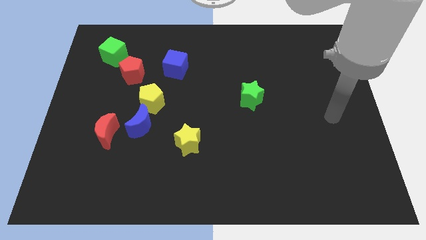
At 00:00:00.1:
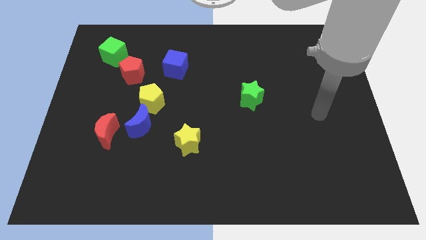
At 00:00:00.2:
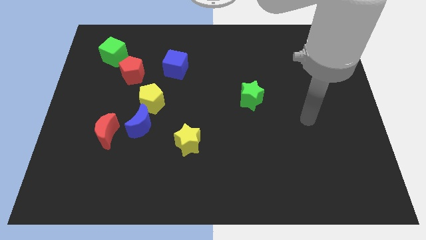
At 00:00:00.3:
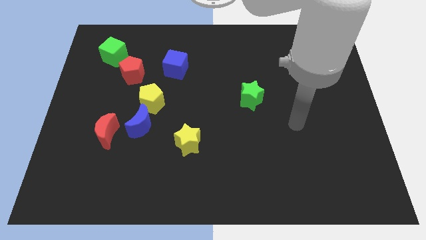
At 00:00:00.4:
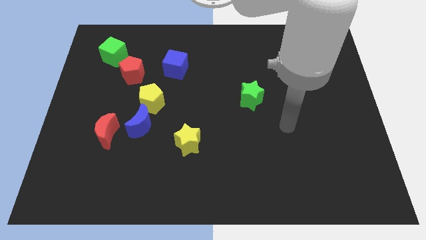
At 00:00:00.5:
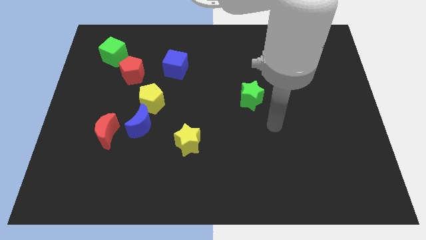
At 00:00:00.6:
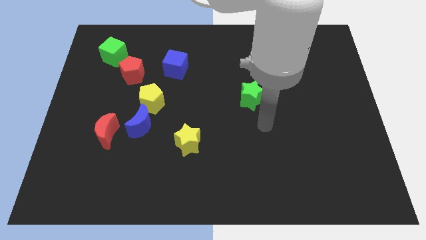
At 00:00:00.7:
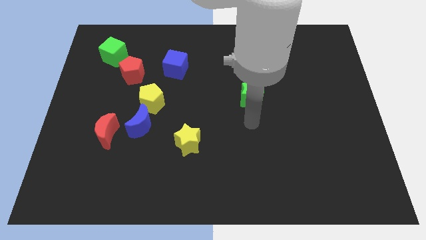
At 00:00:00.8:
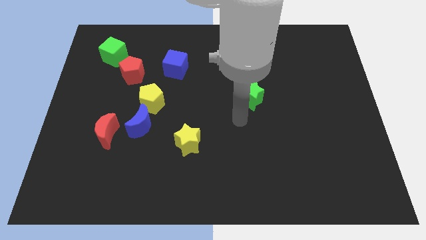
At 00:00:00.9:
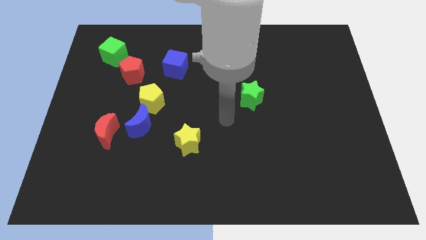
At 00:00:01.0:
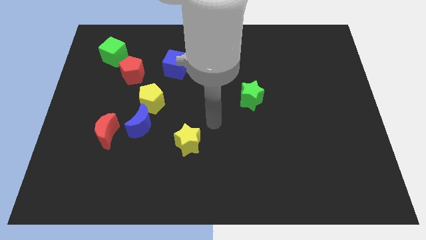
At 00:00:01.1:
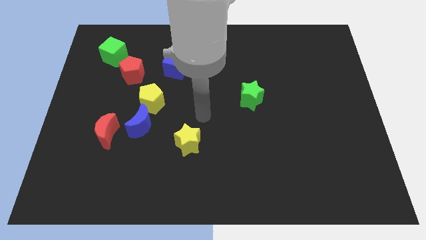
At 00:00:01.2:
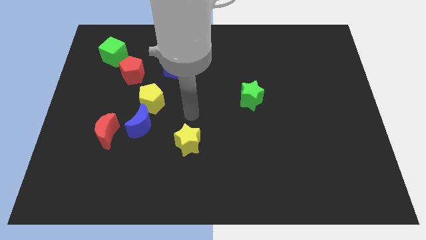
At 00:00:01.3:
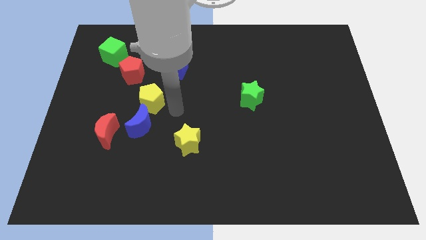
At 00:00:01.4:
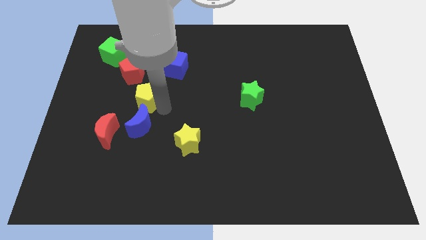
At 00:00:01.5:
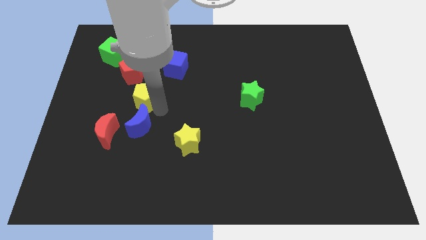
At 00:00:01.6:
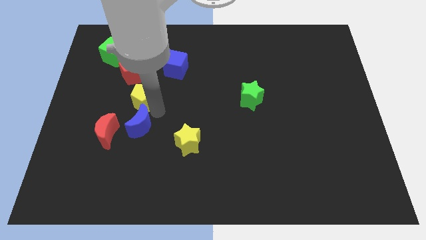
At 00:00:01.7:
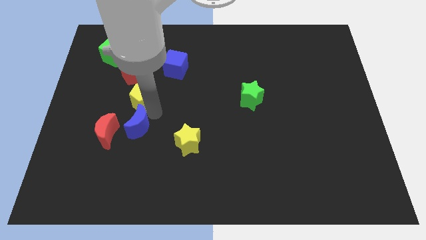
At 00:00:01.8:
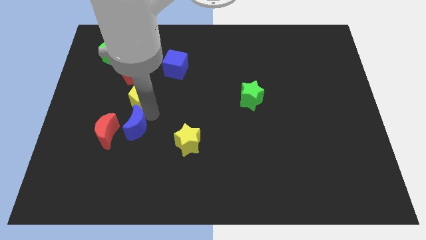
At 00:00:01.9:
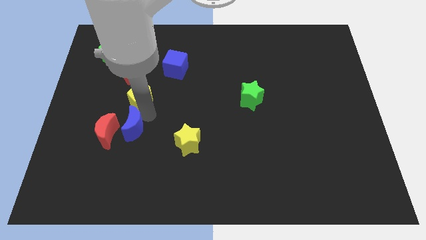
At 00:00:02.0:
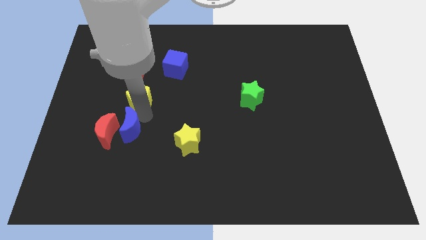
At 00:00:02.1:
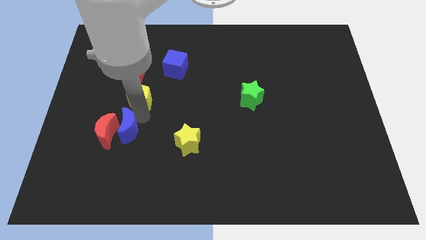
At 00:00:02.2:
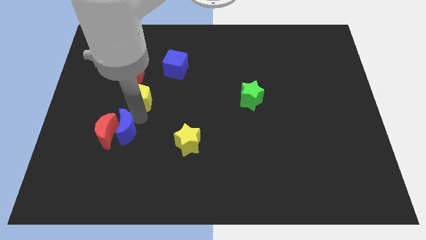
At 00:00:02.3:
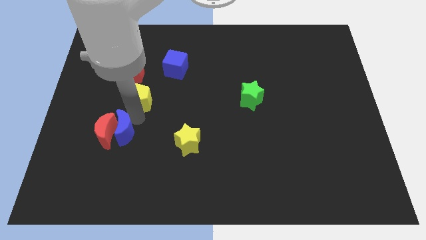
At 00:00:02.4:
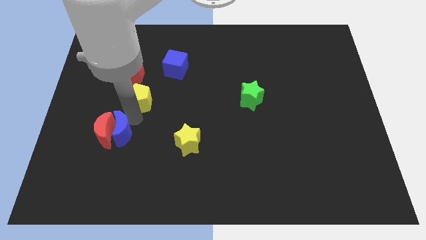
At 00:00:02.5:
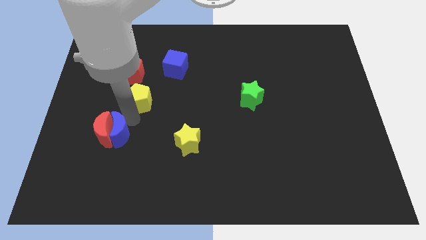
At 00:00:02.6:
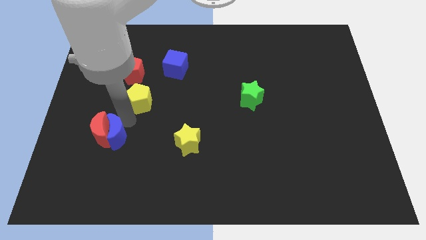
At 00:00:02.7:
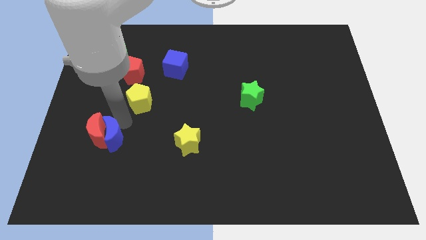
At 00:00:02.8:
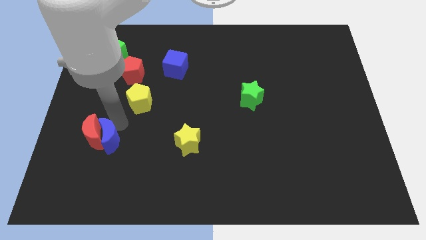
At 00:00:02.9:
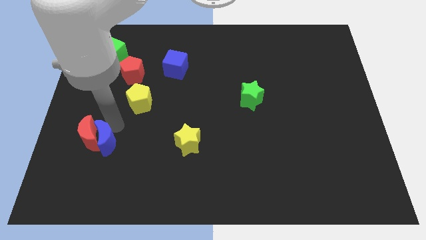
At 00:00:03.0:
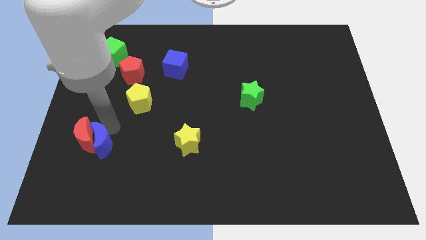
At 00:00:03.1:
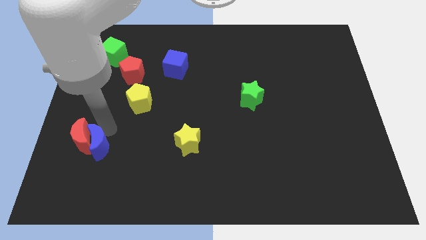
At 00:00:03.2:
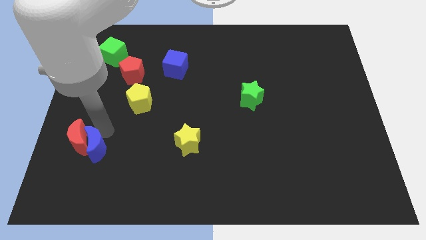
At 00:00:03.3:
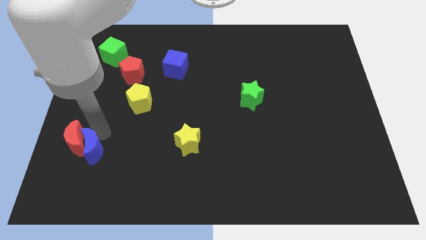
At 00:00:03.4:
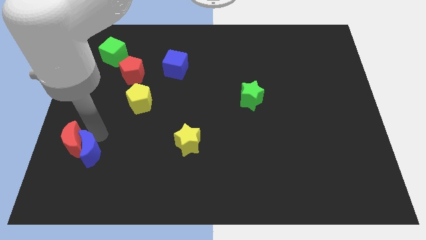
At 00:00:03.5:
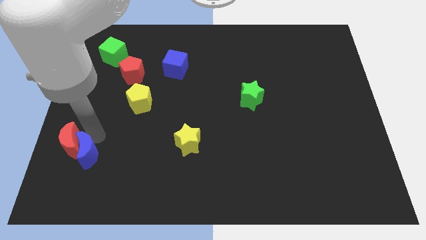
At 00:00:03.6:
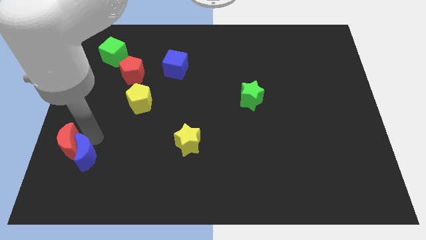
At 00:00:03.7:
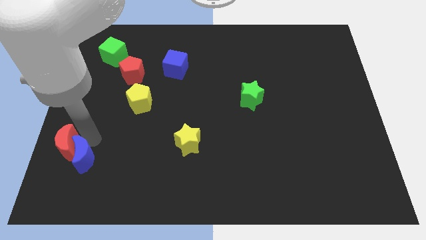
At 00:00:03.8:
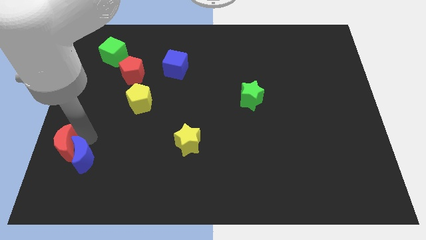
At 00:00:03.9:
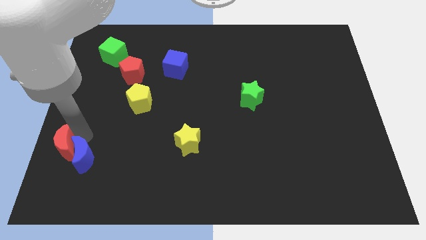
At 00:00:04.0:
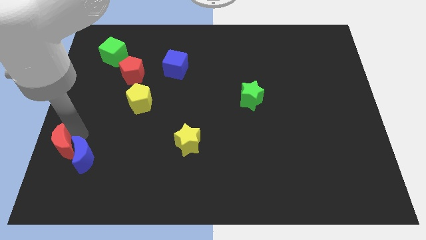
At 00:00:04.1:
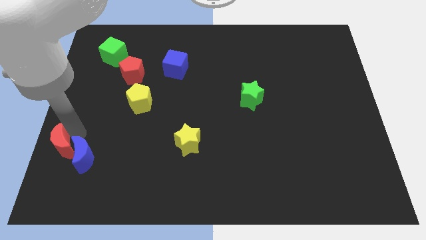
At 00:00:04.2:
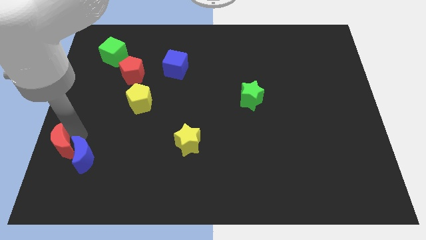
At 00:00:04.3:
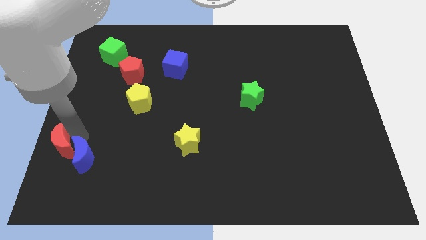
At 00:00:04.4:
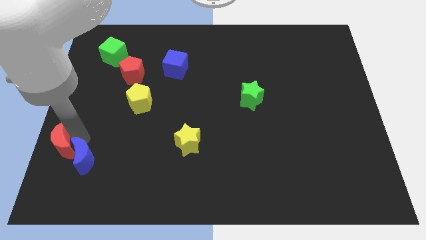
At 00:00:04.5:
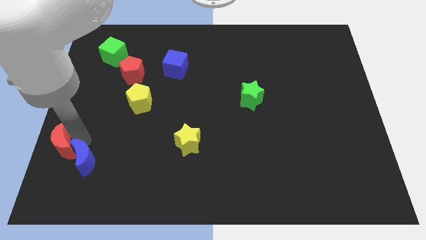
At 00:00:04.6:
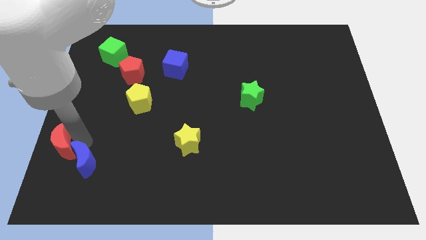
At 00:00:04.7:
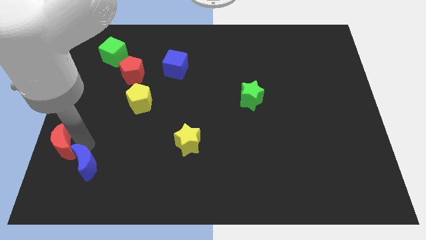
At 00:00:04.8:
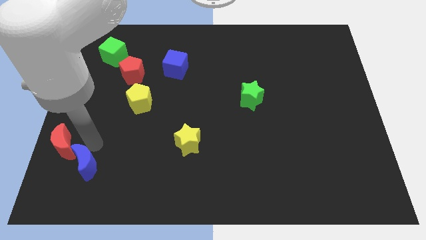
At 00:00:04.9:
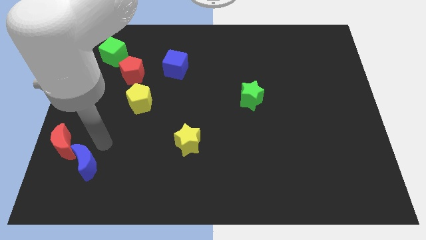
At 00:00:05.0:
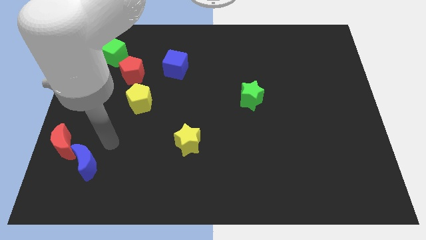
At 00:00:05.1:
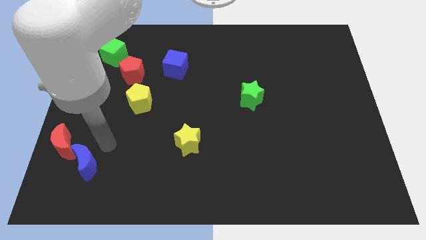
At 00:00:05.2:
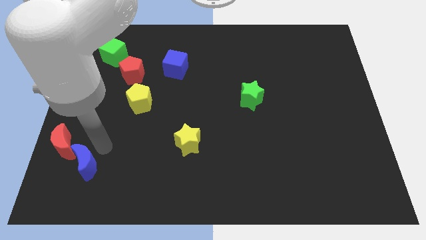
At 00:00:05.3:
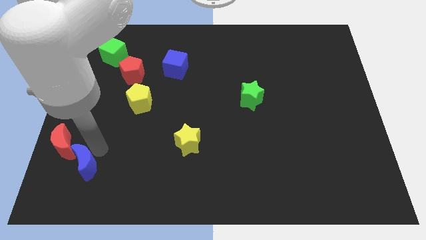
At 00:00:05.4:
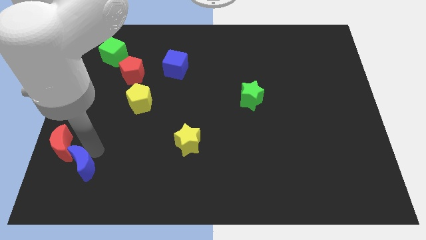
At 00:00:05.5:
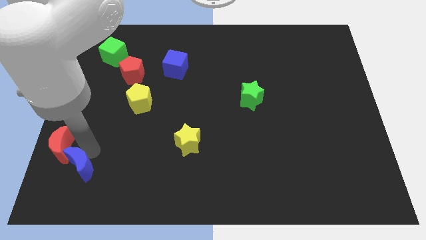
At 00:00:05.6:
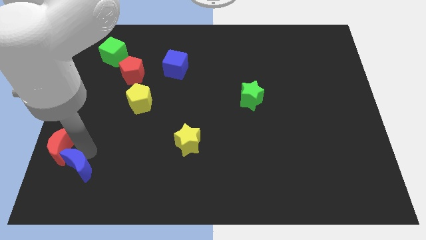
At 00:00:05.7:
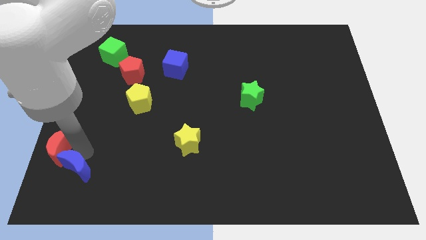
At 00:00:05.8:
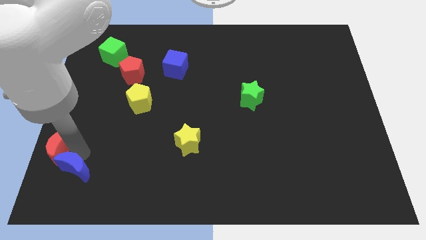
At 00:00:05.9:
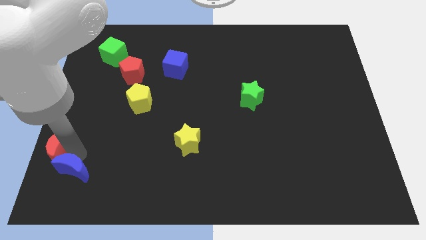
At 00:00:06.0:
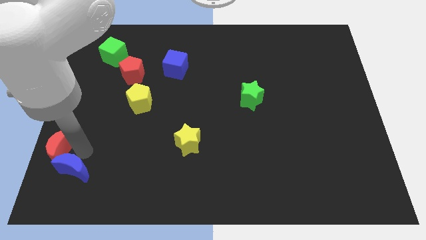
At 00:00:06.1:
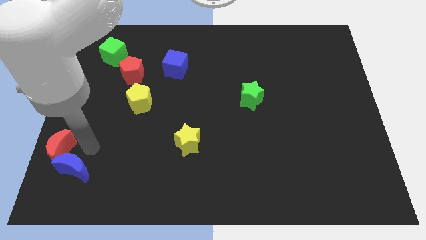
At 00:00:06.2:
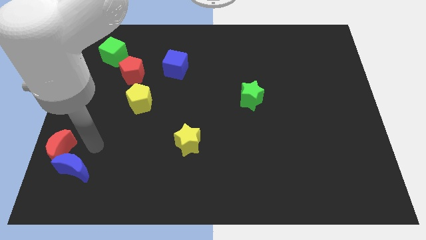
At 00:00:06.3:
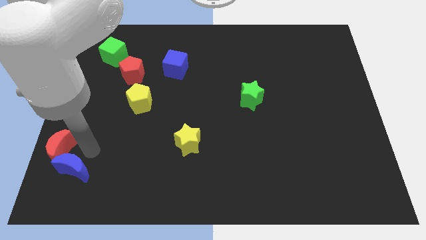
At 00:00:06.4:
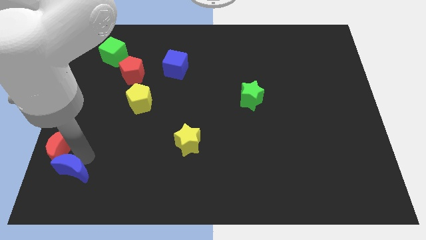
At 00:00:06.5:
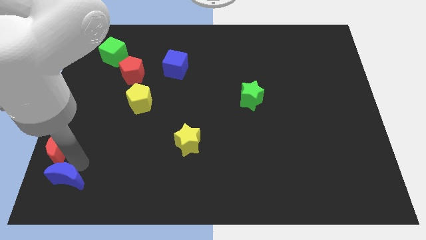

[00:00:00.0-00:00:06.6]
slide the blue moon to the bottom left of the board
